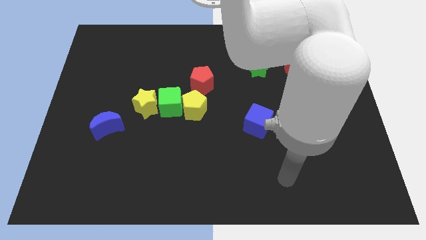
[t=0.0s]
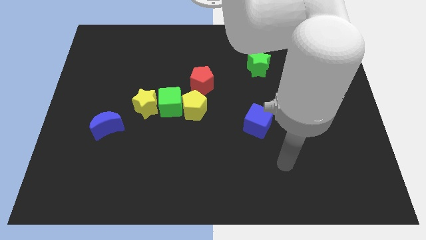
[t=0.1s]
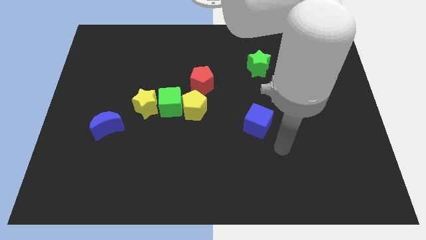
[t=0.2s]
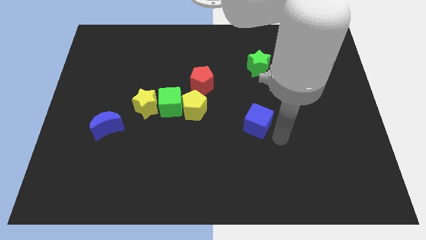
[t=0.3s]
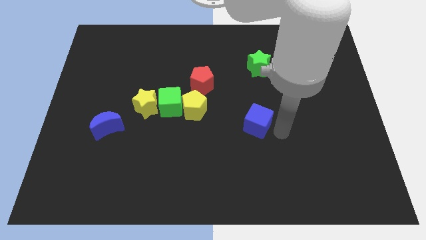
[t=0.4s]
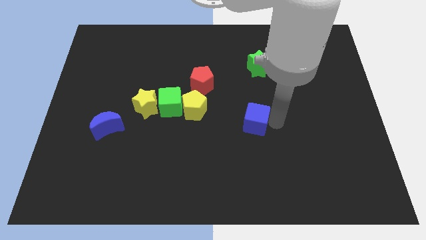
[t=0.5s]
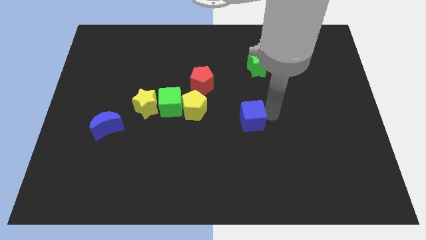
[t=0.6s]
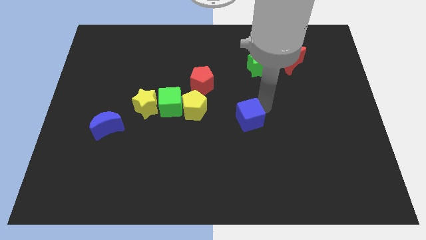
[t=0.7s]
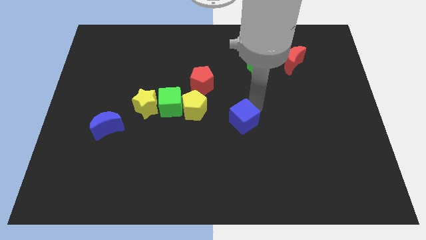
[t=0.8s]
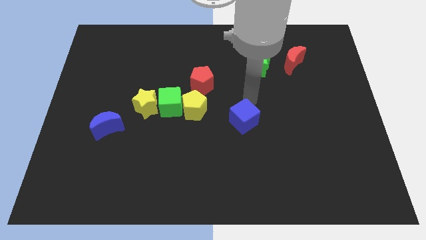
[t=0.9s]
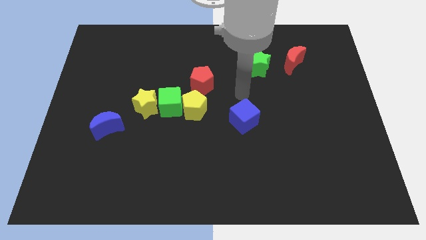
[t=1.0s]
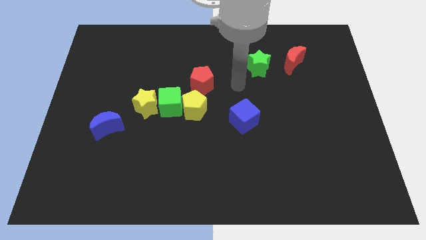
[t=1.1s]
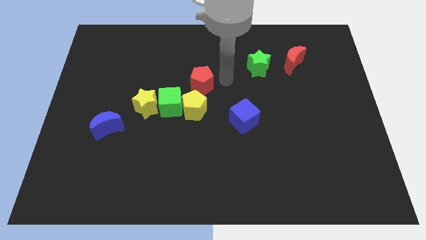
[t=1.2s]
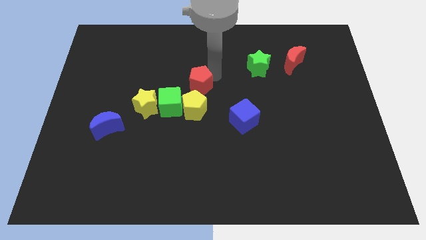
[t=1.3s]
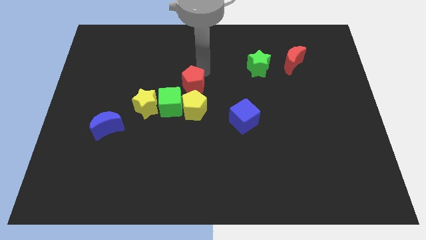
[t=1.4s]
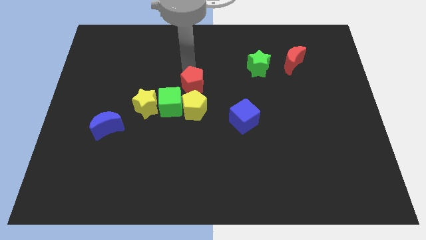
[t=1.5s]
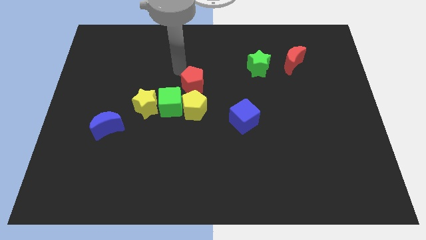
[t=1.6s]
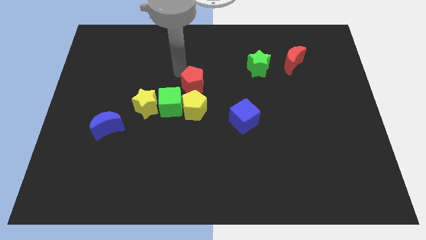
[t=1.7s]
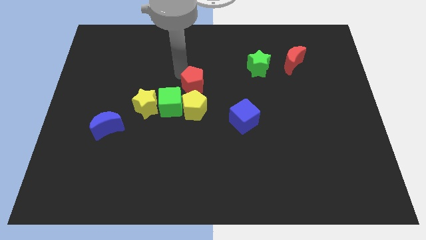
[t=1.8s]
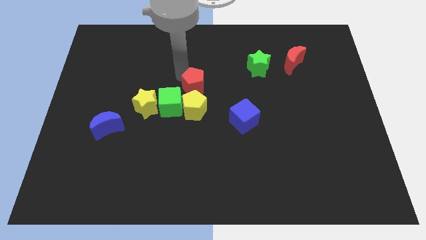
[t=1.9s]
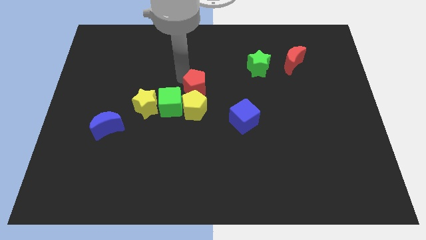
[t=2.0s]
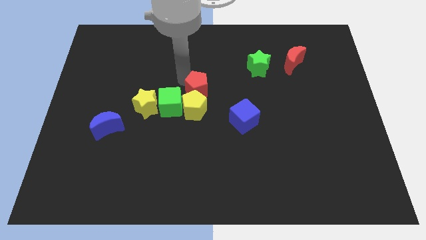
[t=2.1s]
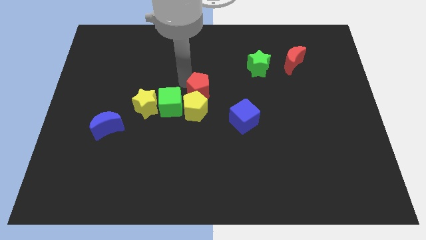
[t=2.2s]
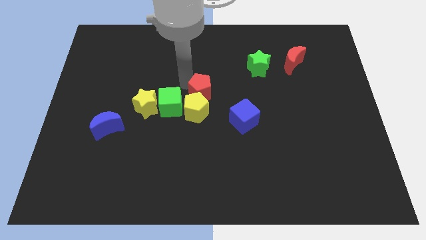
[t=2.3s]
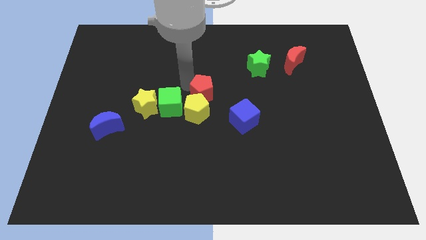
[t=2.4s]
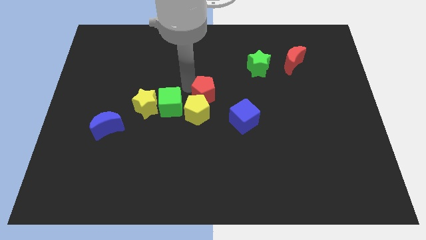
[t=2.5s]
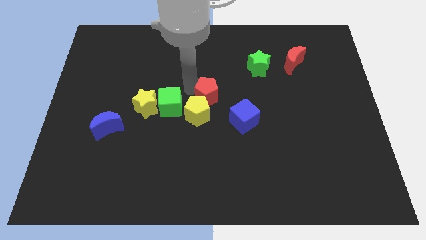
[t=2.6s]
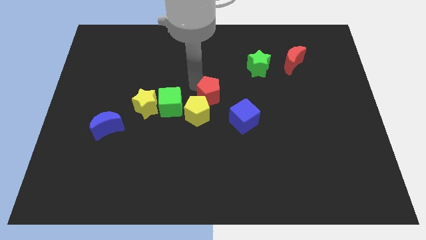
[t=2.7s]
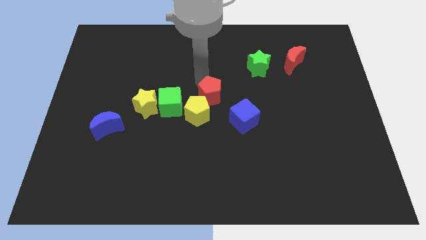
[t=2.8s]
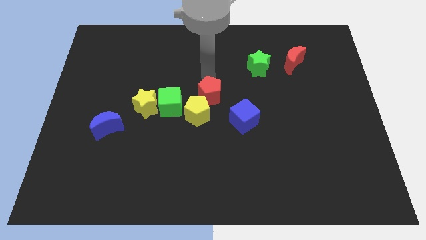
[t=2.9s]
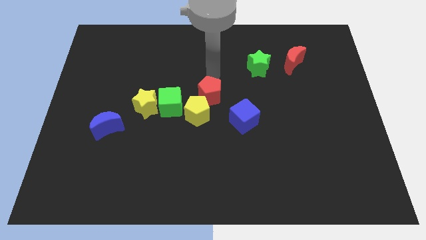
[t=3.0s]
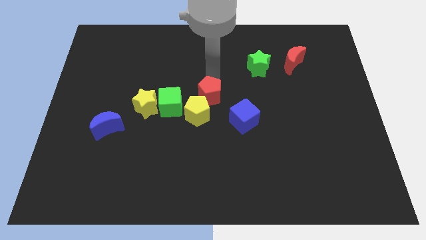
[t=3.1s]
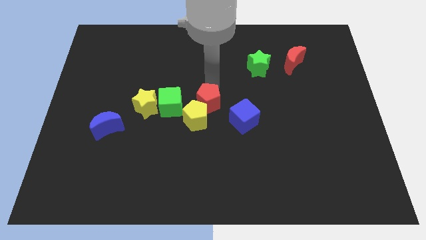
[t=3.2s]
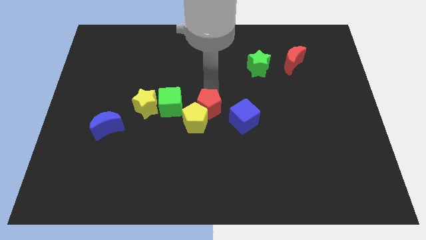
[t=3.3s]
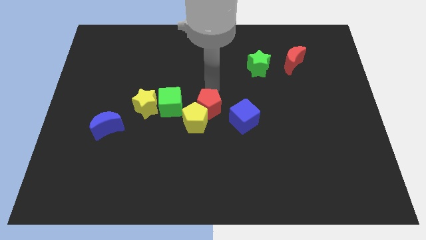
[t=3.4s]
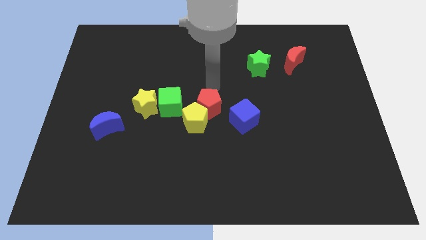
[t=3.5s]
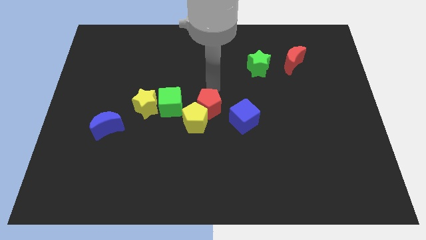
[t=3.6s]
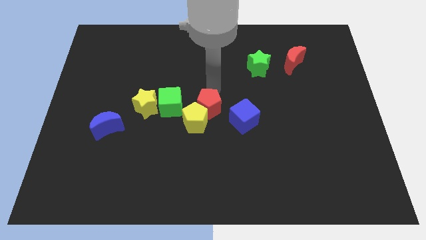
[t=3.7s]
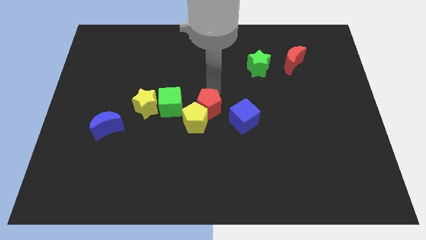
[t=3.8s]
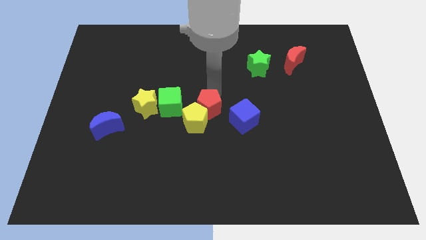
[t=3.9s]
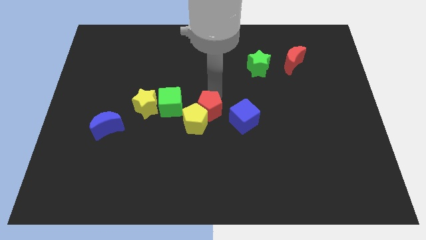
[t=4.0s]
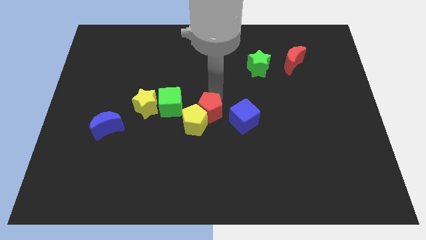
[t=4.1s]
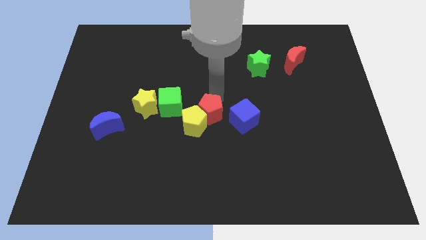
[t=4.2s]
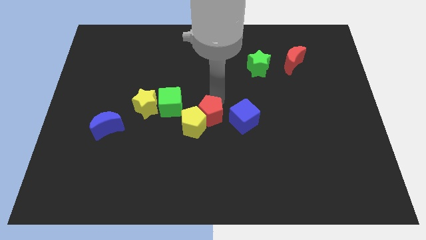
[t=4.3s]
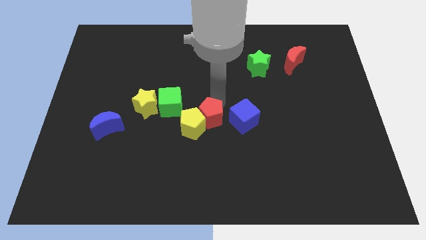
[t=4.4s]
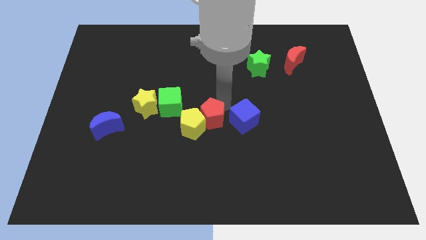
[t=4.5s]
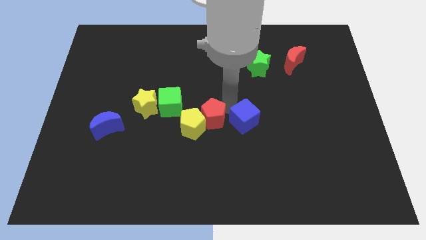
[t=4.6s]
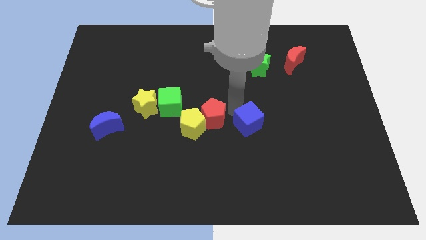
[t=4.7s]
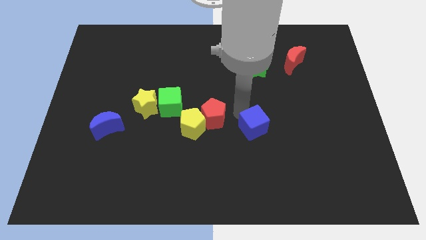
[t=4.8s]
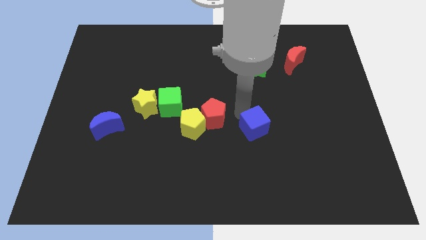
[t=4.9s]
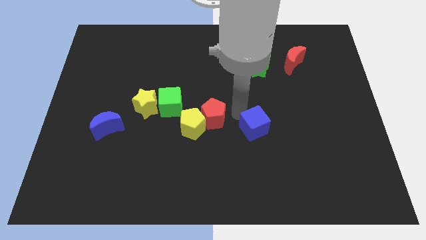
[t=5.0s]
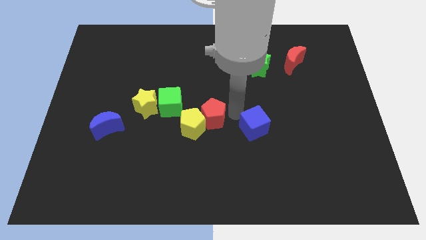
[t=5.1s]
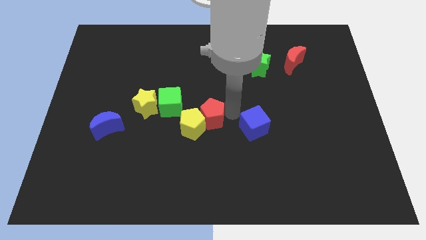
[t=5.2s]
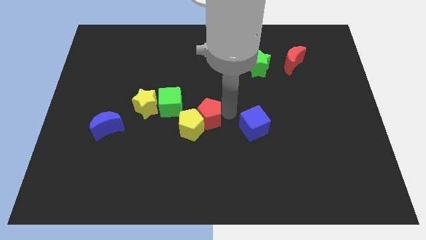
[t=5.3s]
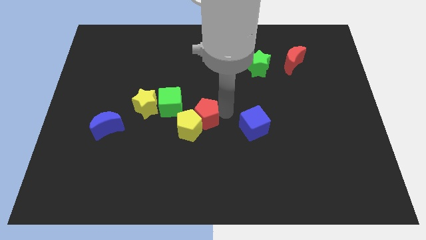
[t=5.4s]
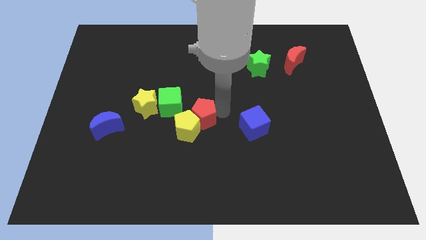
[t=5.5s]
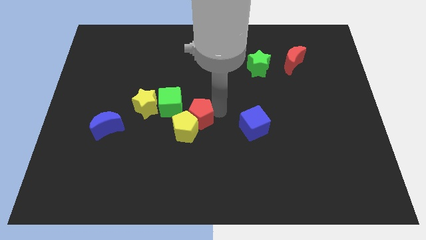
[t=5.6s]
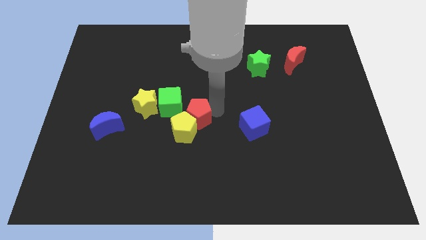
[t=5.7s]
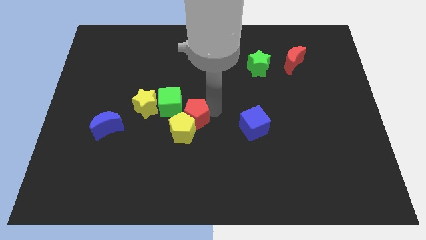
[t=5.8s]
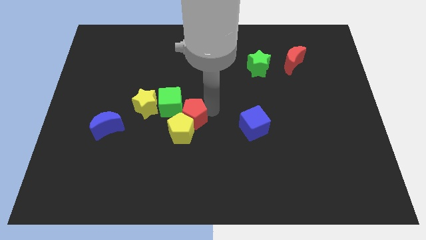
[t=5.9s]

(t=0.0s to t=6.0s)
slightly slide the red pentagon downwards and then left

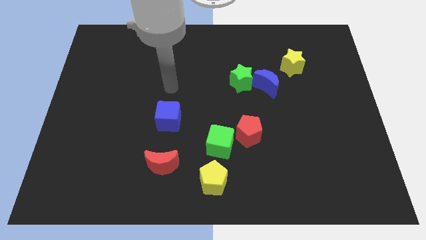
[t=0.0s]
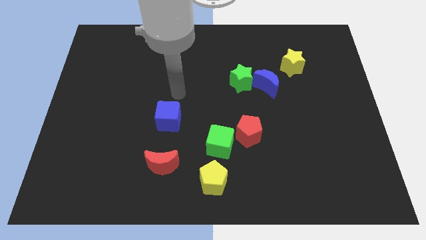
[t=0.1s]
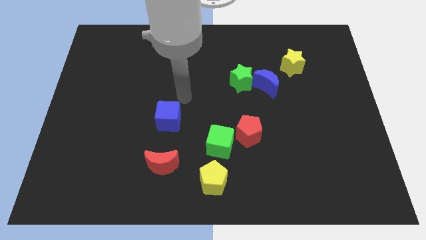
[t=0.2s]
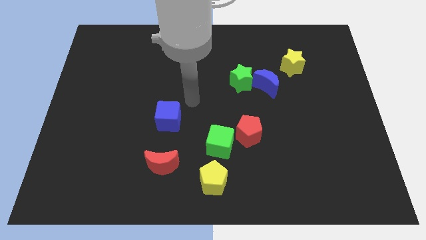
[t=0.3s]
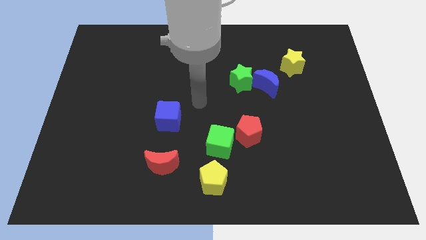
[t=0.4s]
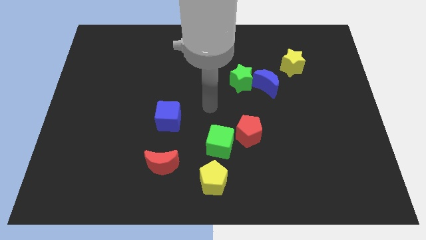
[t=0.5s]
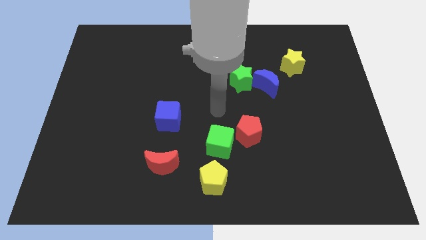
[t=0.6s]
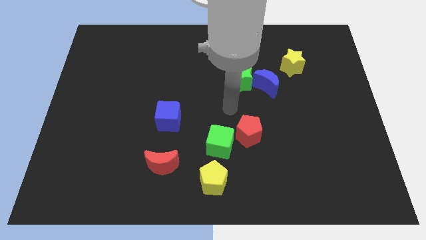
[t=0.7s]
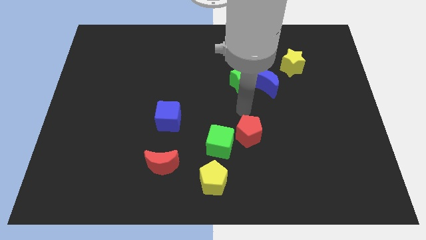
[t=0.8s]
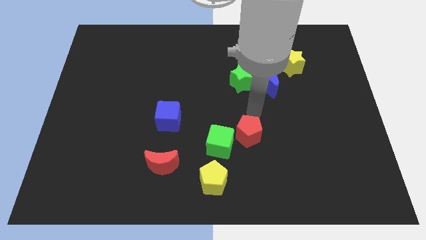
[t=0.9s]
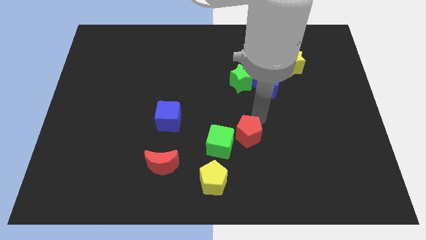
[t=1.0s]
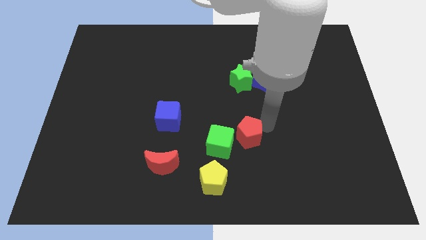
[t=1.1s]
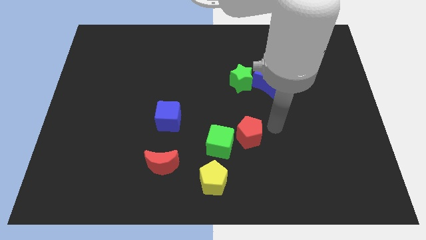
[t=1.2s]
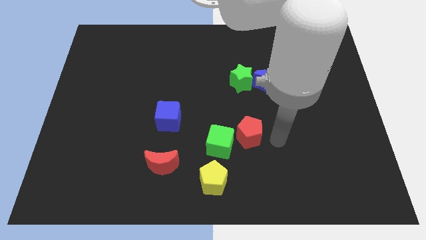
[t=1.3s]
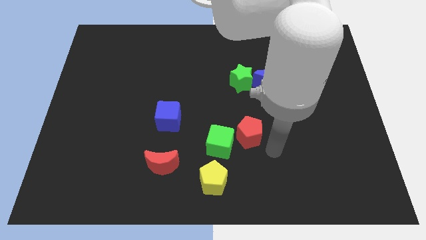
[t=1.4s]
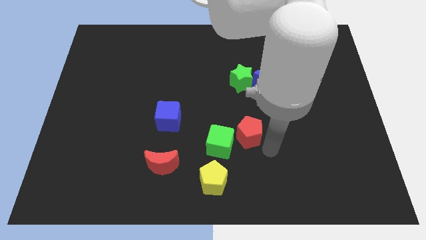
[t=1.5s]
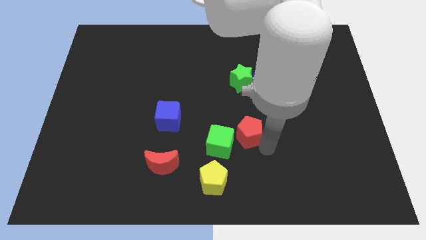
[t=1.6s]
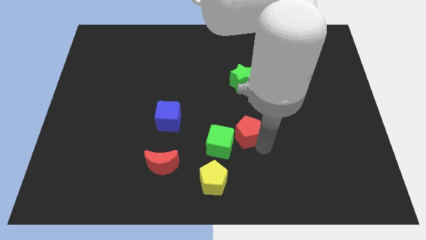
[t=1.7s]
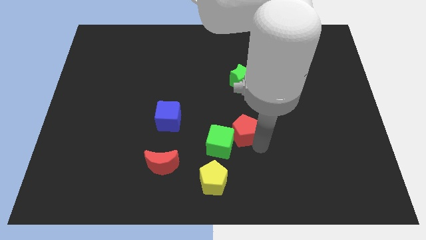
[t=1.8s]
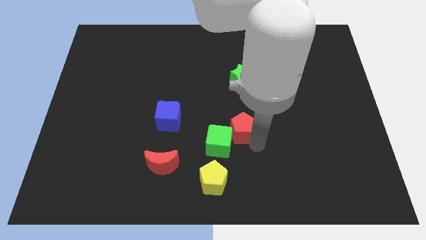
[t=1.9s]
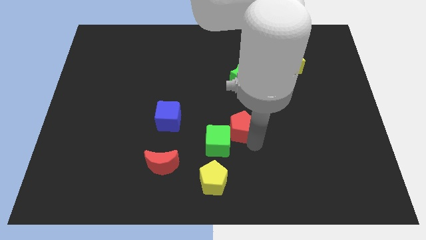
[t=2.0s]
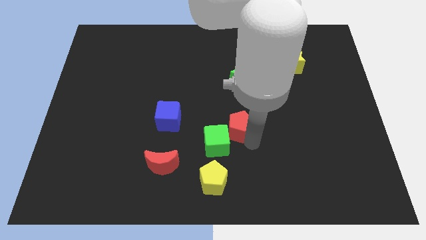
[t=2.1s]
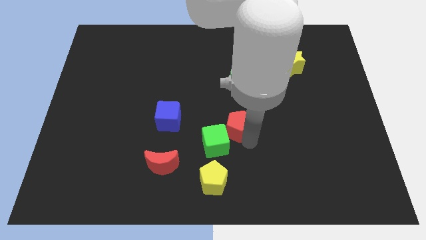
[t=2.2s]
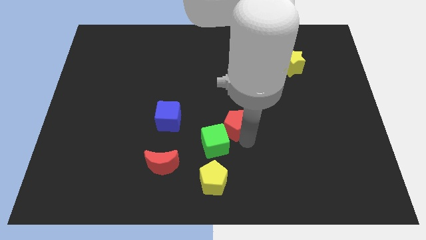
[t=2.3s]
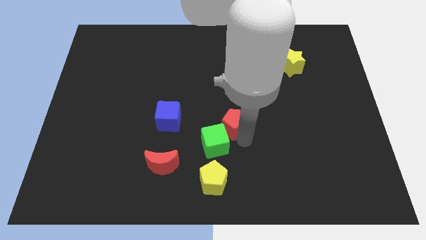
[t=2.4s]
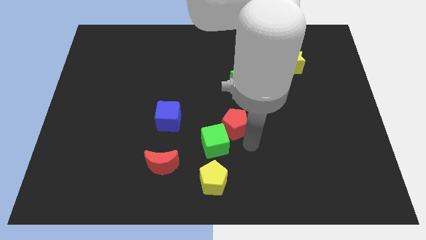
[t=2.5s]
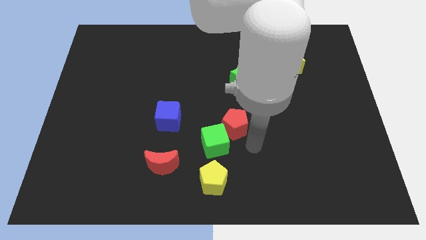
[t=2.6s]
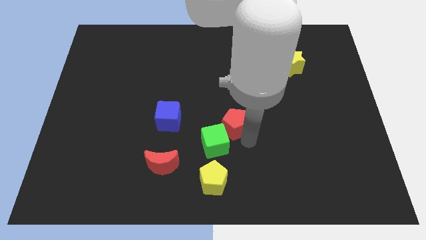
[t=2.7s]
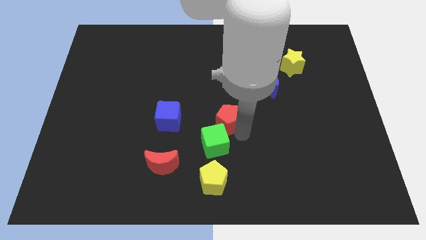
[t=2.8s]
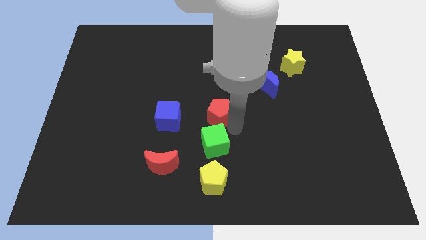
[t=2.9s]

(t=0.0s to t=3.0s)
slightly slide the red pentagon upwards and to the left
